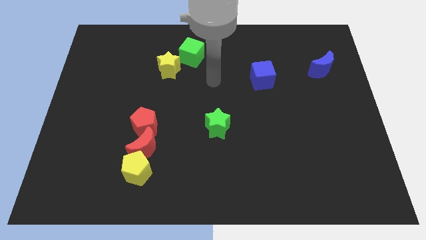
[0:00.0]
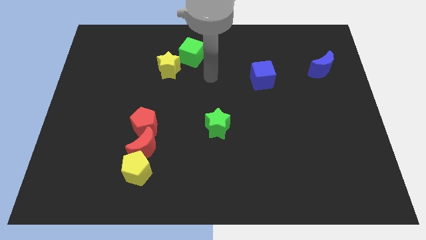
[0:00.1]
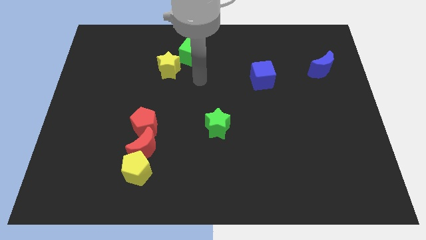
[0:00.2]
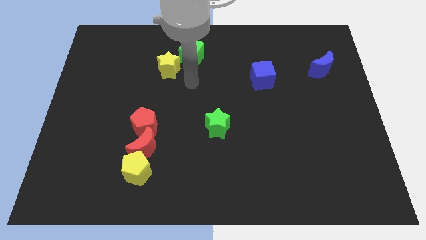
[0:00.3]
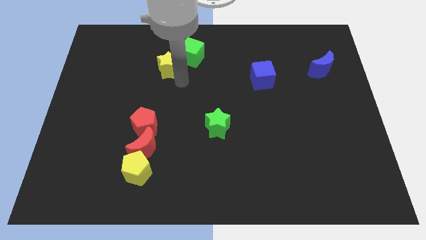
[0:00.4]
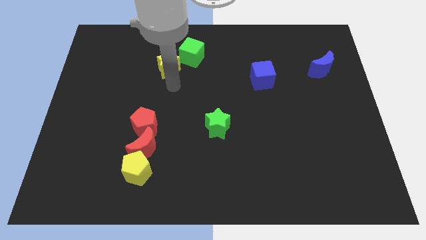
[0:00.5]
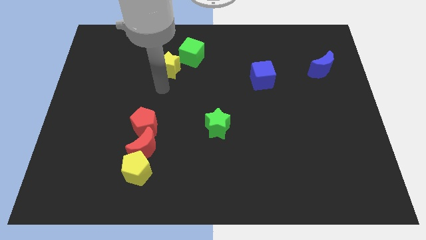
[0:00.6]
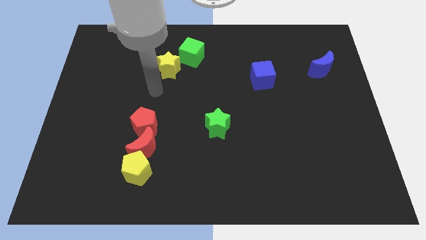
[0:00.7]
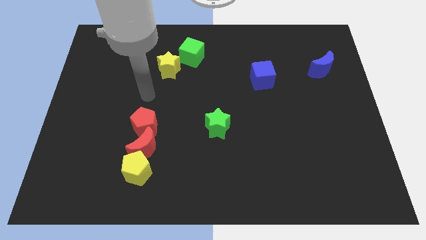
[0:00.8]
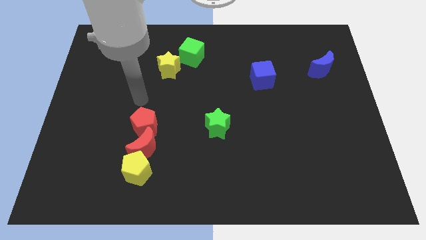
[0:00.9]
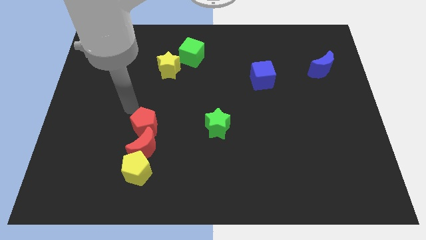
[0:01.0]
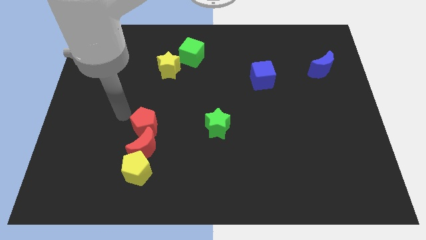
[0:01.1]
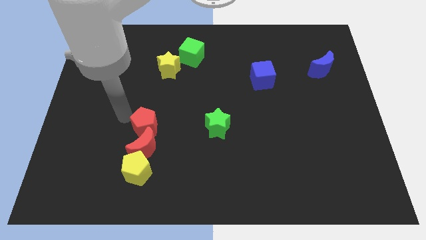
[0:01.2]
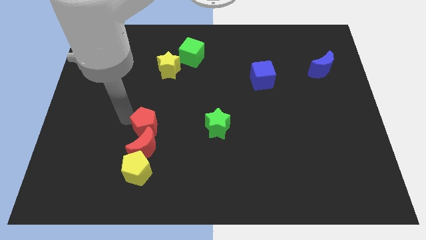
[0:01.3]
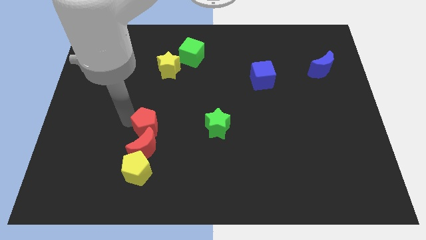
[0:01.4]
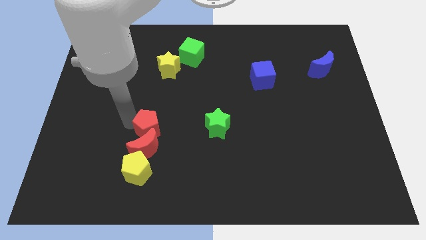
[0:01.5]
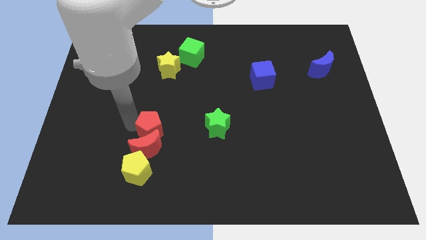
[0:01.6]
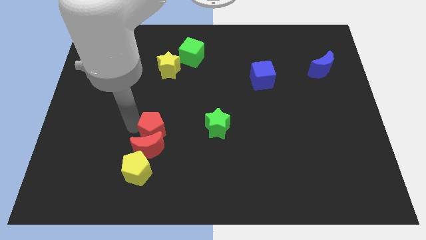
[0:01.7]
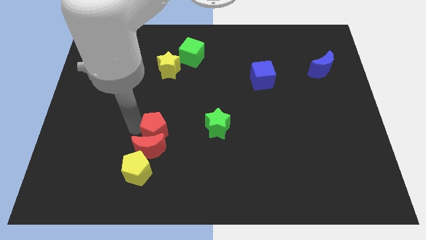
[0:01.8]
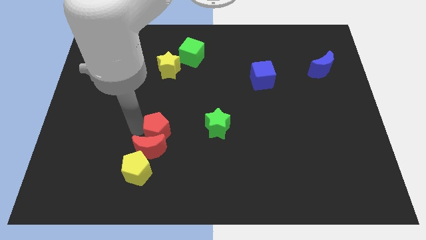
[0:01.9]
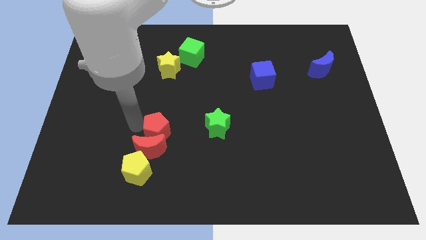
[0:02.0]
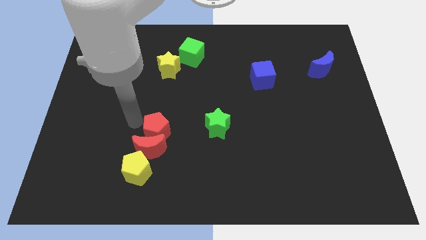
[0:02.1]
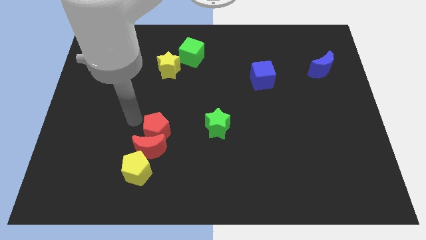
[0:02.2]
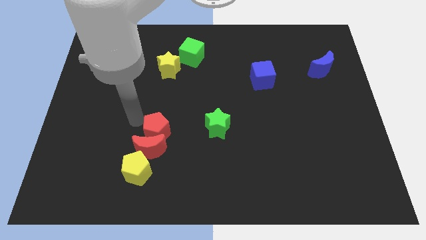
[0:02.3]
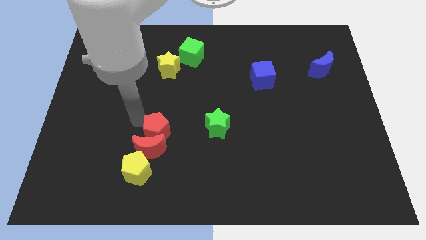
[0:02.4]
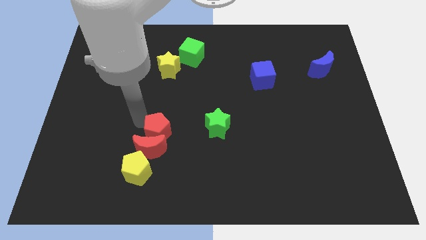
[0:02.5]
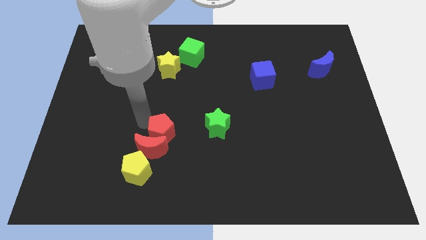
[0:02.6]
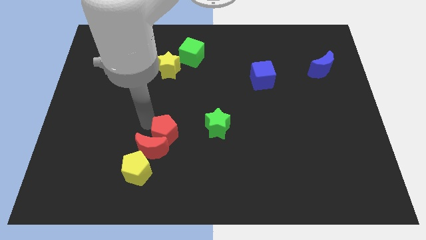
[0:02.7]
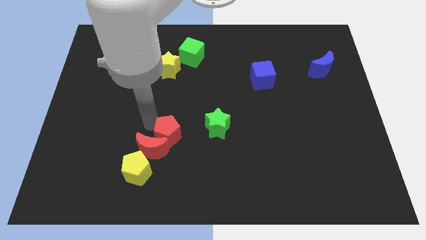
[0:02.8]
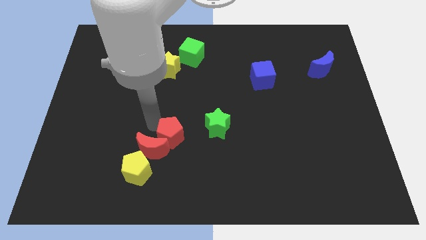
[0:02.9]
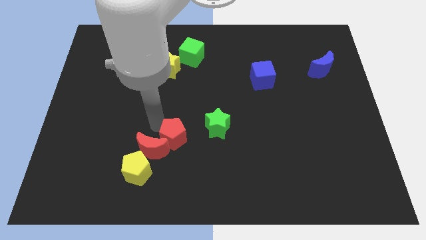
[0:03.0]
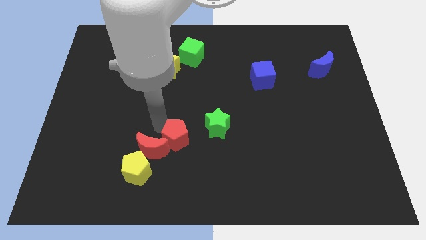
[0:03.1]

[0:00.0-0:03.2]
push the red pentagon somewhat down and to the right diagonally

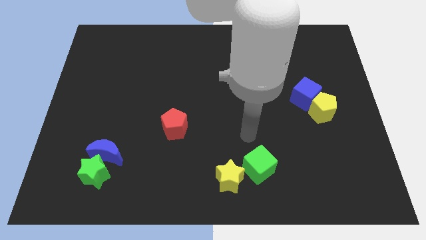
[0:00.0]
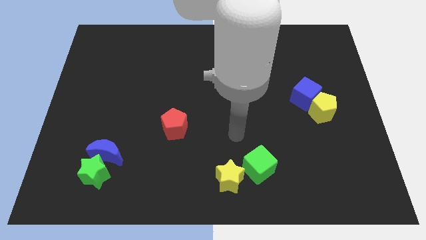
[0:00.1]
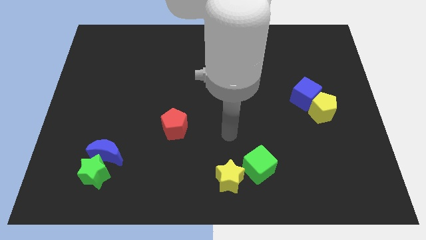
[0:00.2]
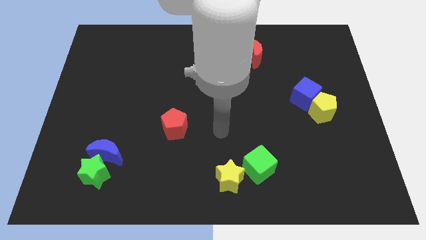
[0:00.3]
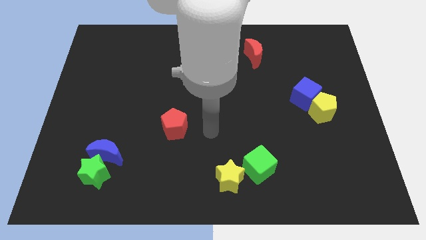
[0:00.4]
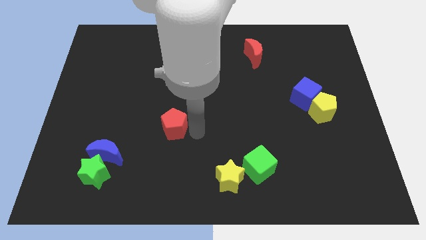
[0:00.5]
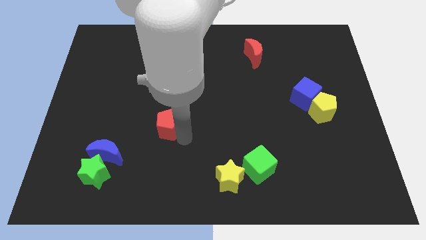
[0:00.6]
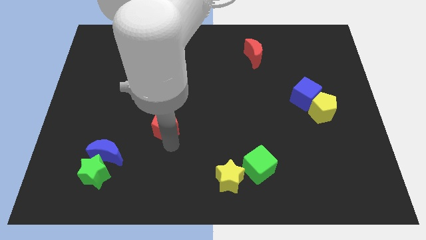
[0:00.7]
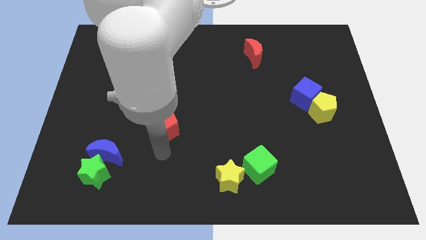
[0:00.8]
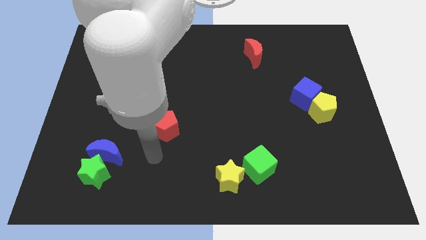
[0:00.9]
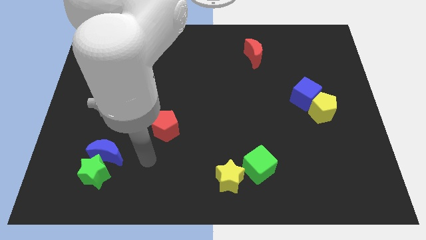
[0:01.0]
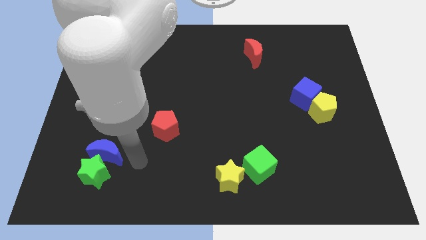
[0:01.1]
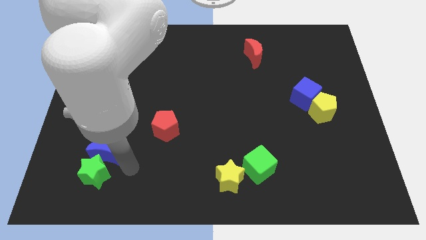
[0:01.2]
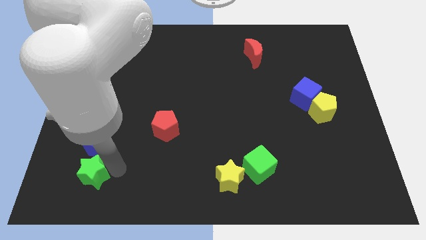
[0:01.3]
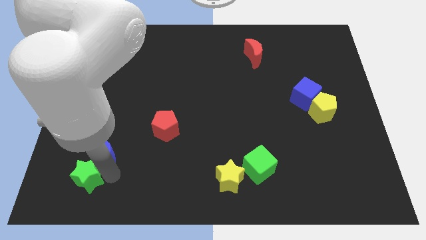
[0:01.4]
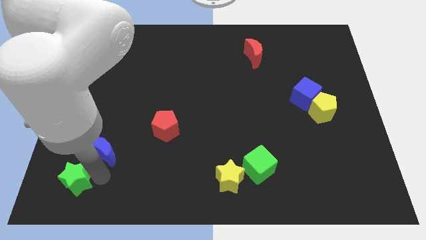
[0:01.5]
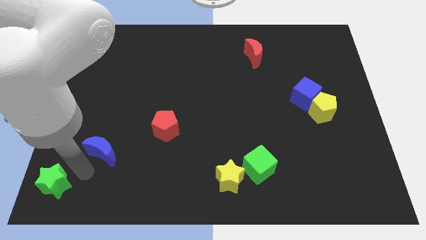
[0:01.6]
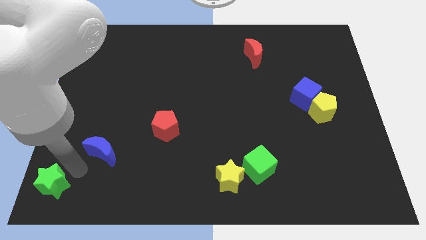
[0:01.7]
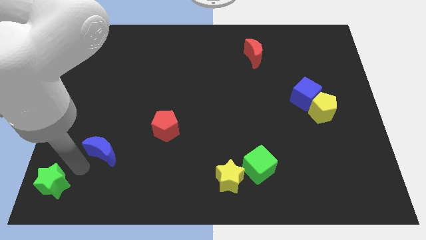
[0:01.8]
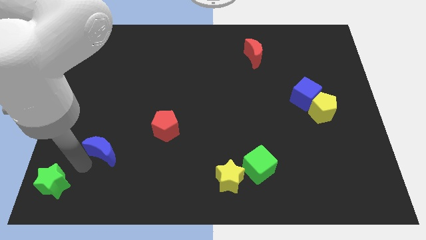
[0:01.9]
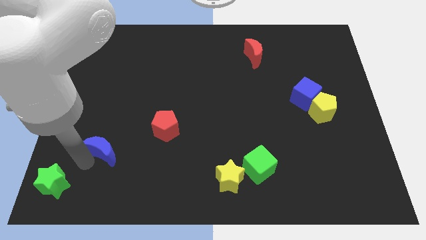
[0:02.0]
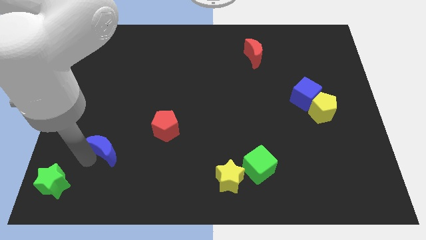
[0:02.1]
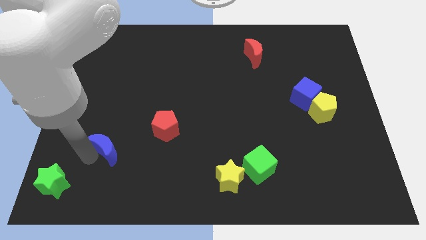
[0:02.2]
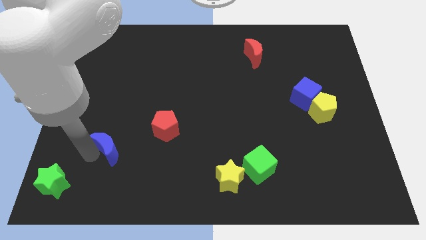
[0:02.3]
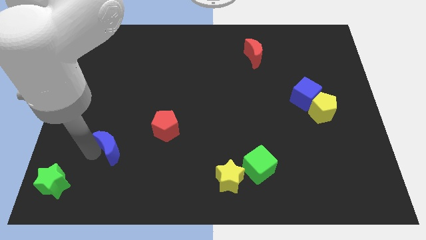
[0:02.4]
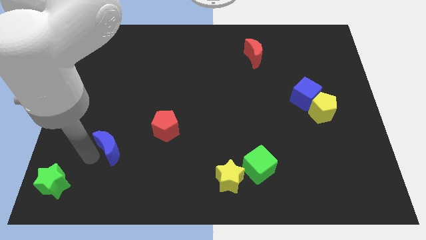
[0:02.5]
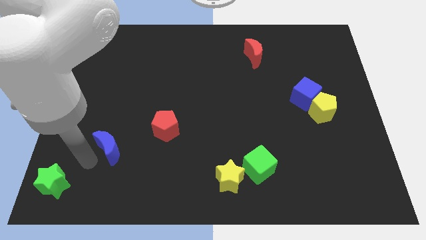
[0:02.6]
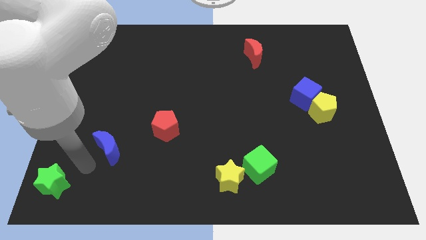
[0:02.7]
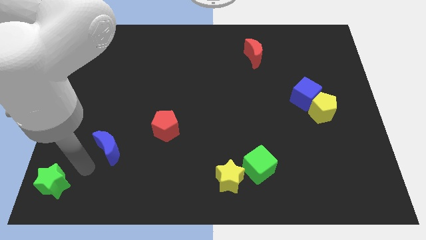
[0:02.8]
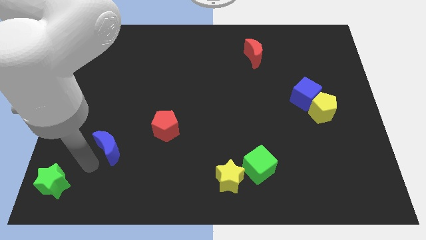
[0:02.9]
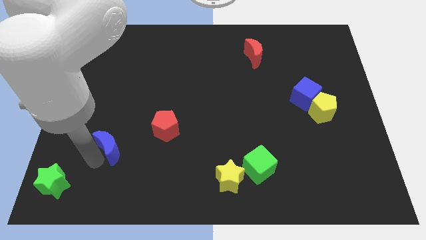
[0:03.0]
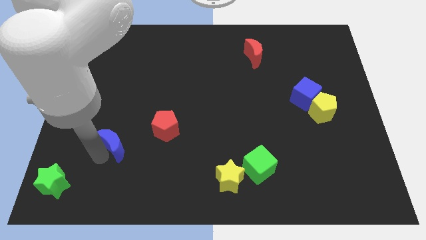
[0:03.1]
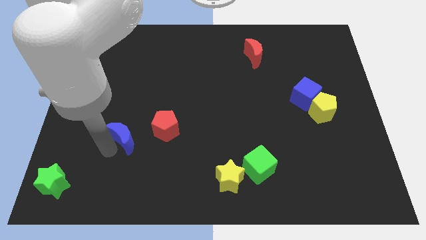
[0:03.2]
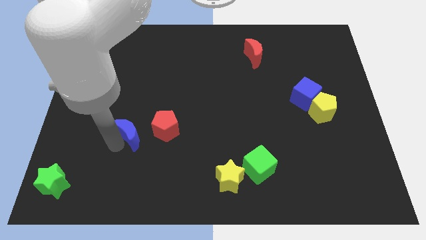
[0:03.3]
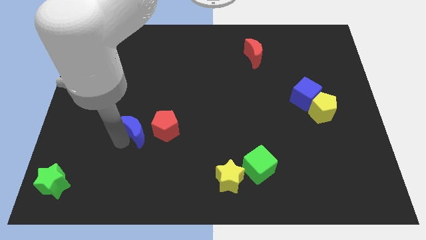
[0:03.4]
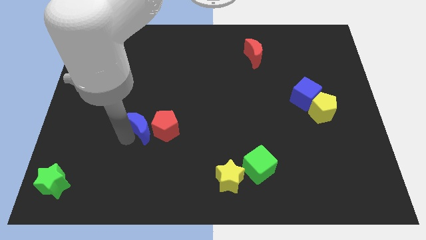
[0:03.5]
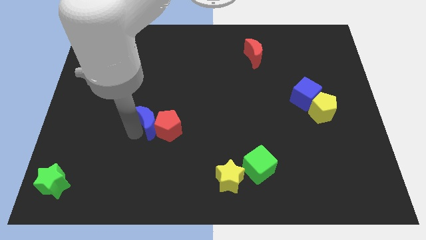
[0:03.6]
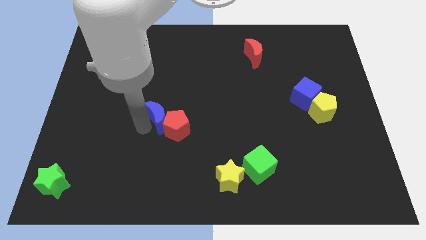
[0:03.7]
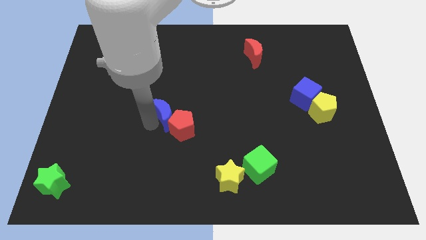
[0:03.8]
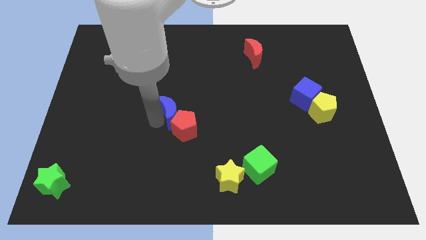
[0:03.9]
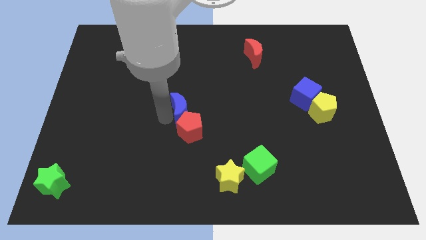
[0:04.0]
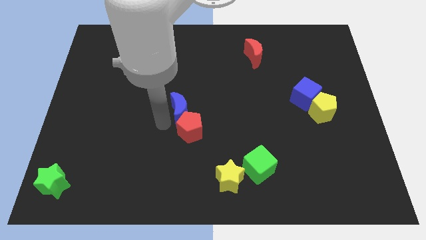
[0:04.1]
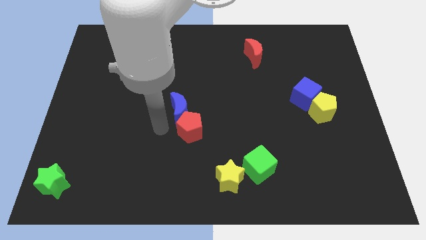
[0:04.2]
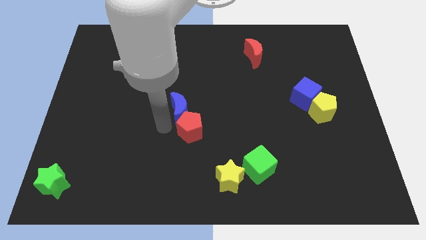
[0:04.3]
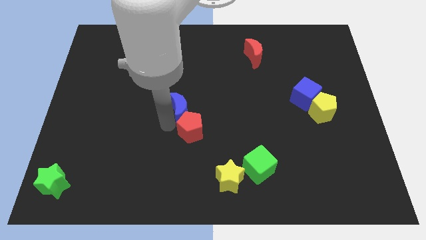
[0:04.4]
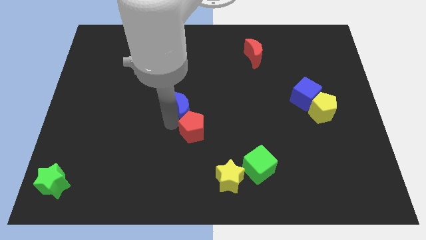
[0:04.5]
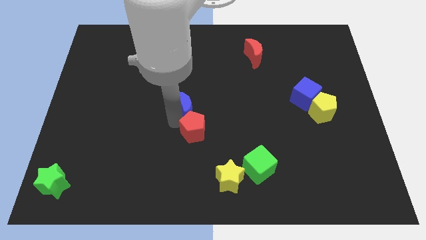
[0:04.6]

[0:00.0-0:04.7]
move the blue moon up and then right
